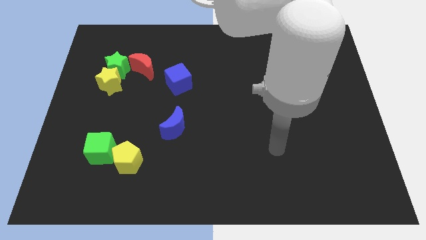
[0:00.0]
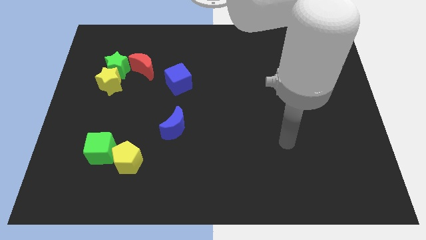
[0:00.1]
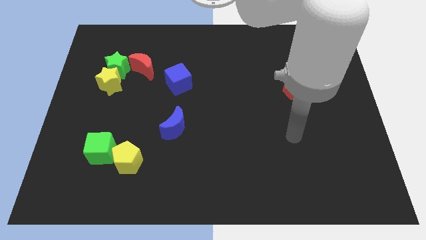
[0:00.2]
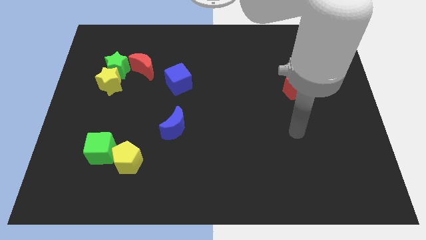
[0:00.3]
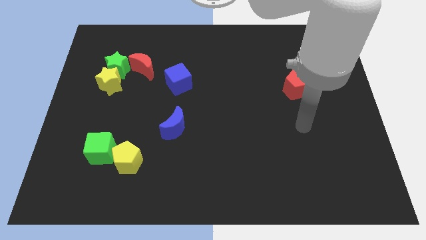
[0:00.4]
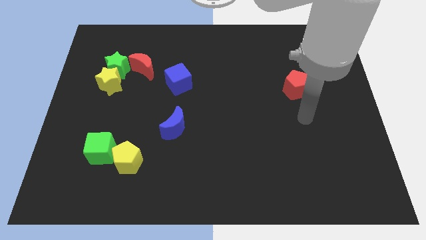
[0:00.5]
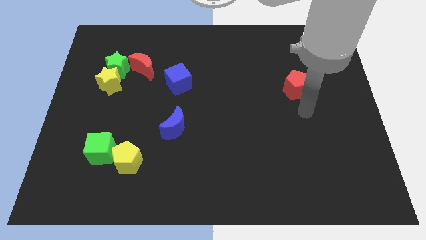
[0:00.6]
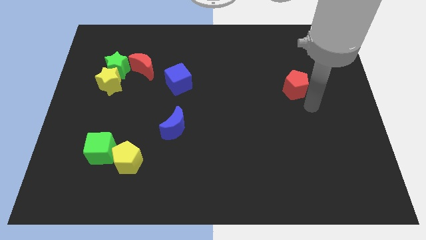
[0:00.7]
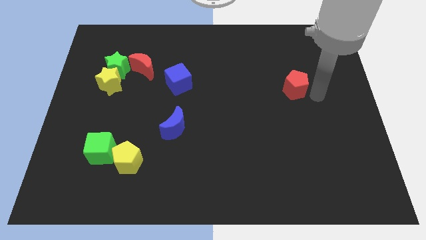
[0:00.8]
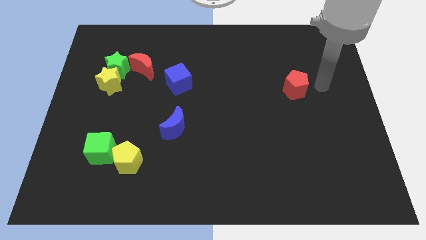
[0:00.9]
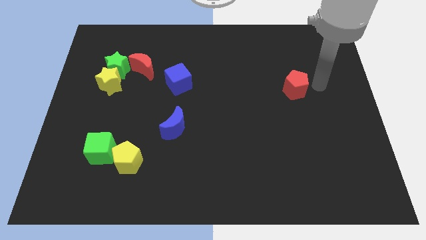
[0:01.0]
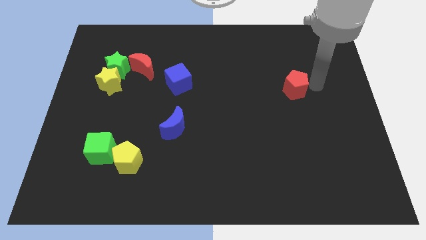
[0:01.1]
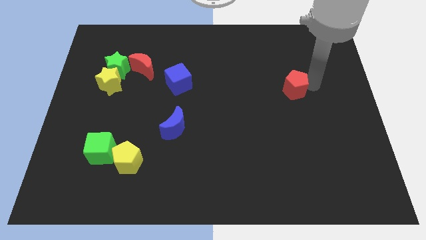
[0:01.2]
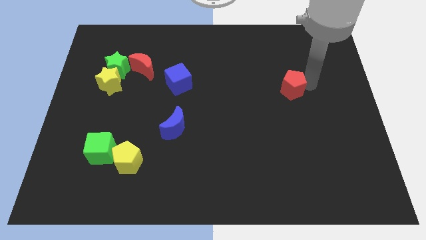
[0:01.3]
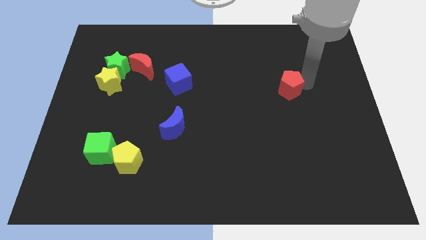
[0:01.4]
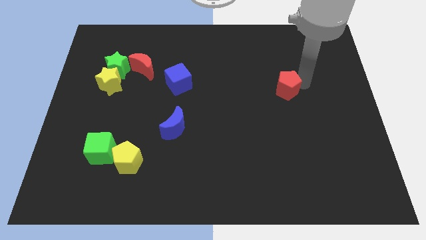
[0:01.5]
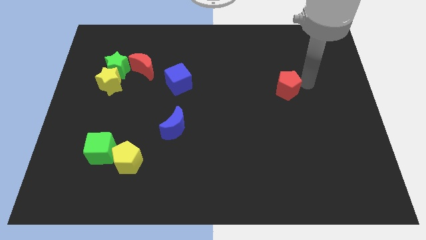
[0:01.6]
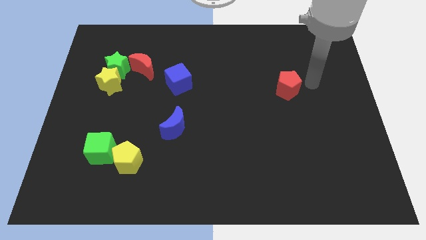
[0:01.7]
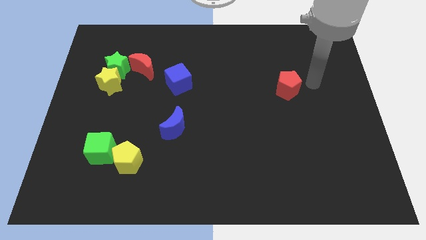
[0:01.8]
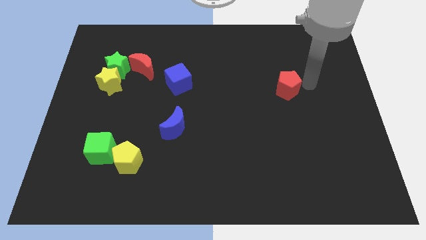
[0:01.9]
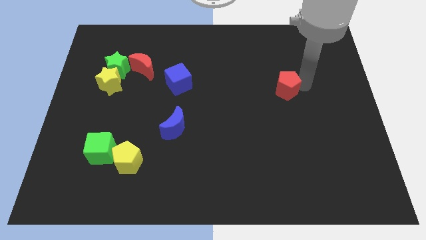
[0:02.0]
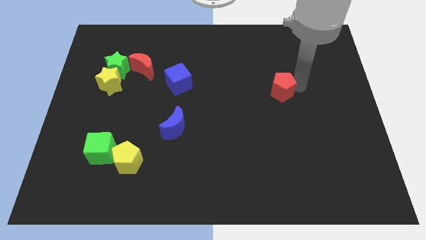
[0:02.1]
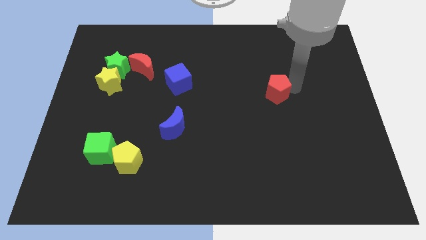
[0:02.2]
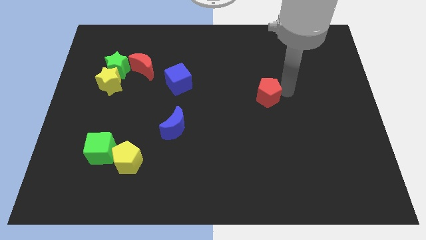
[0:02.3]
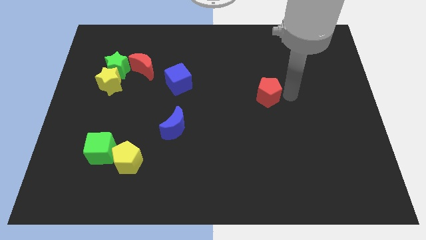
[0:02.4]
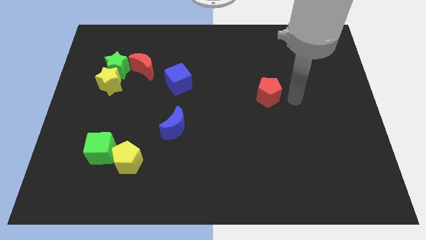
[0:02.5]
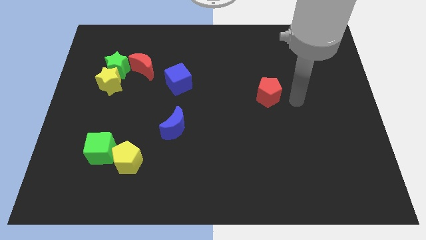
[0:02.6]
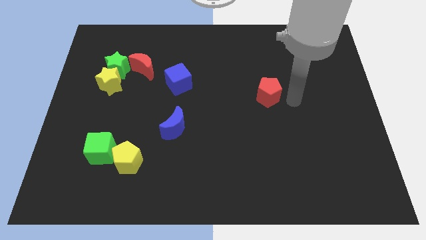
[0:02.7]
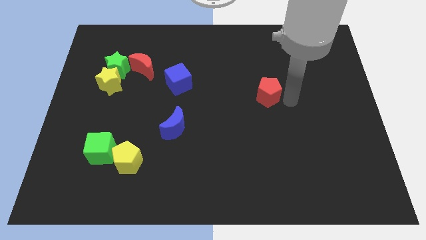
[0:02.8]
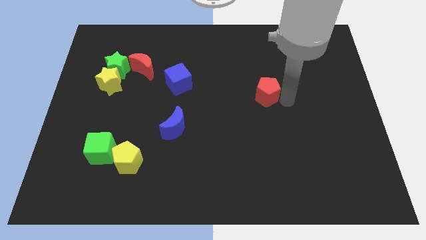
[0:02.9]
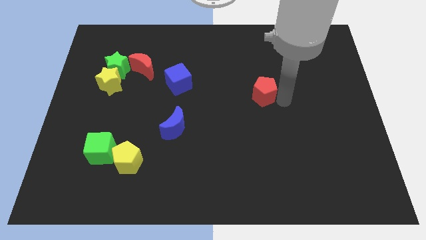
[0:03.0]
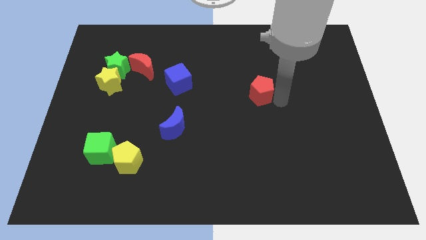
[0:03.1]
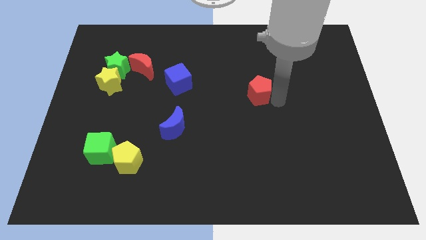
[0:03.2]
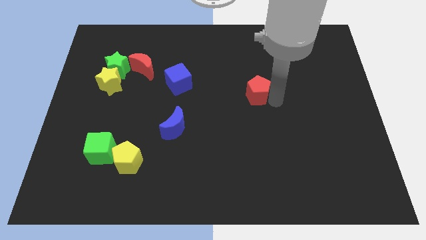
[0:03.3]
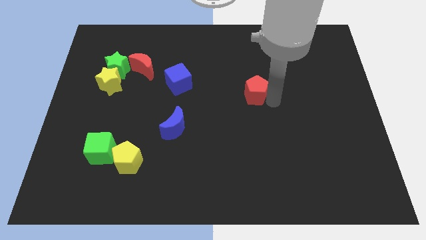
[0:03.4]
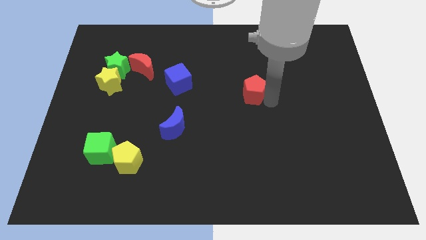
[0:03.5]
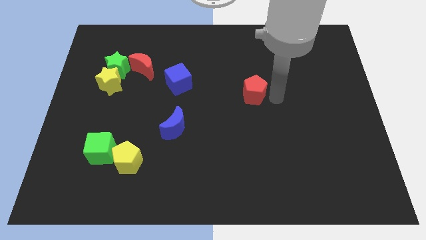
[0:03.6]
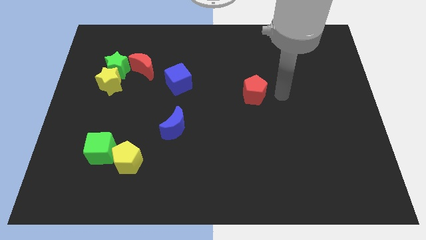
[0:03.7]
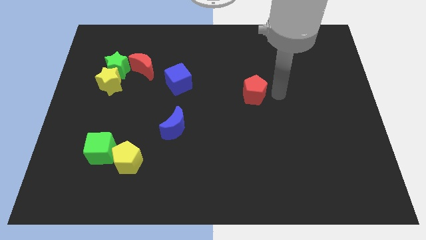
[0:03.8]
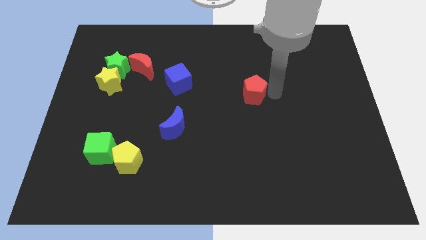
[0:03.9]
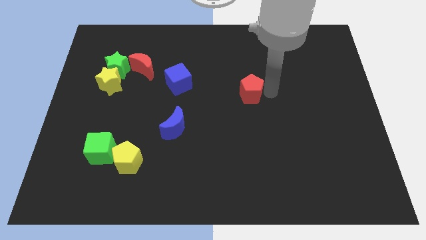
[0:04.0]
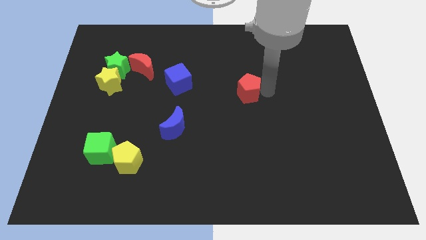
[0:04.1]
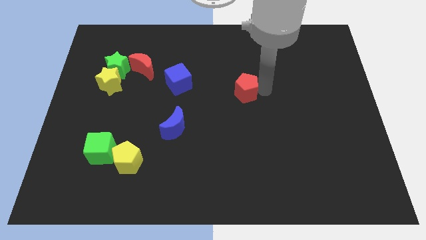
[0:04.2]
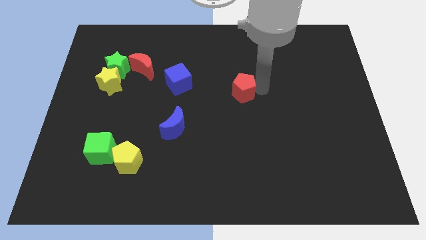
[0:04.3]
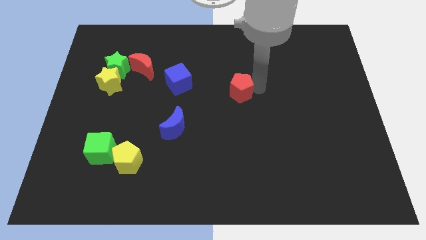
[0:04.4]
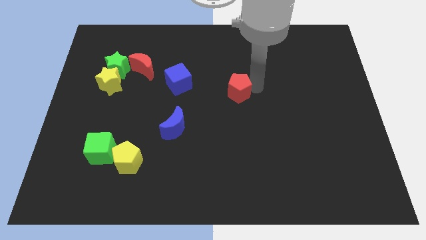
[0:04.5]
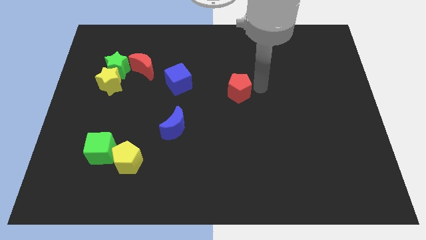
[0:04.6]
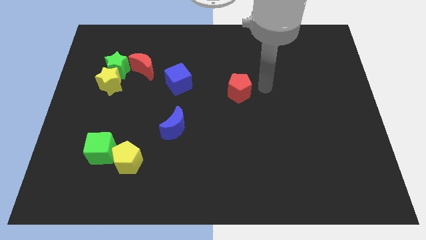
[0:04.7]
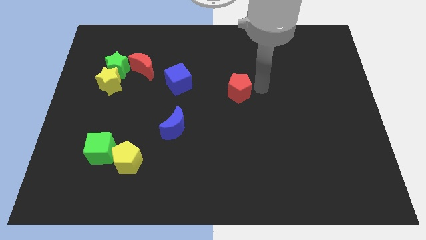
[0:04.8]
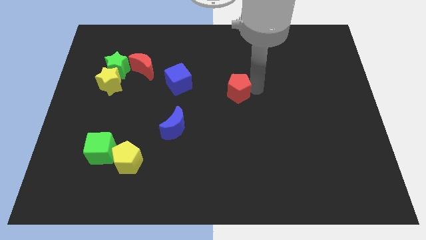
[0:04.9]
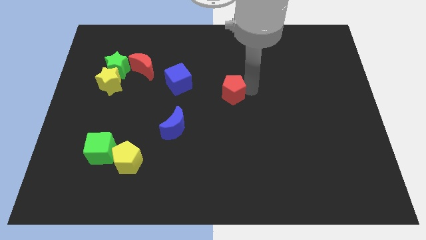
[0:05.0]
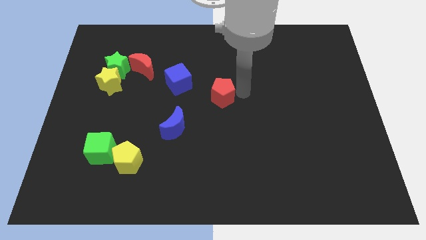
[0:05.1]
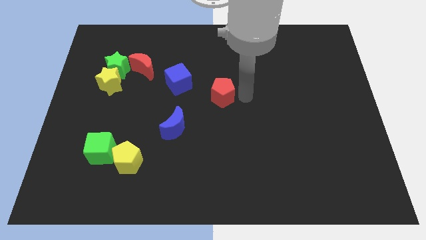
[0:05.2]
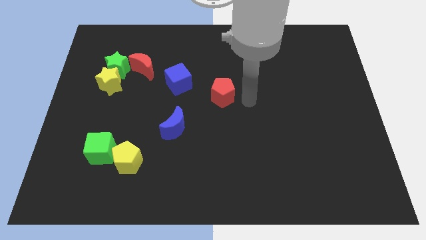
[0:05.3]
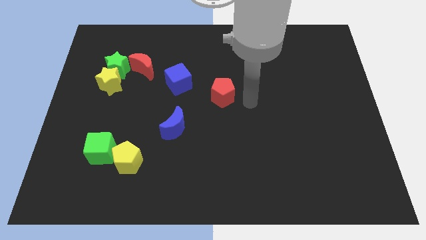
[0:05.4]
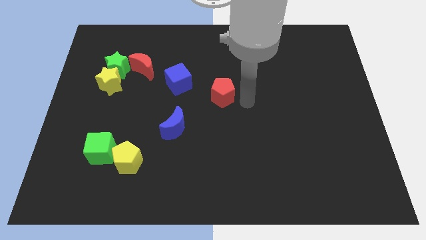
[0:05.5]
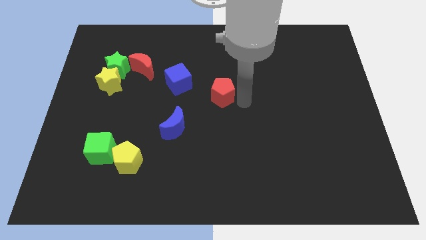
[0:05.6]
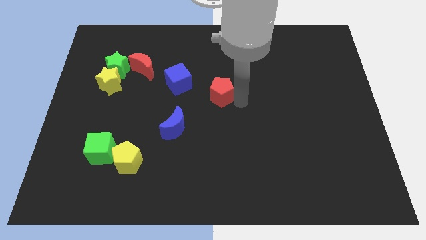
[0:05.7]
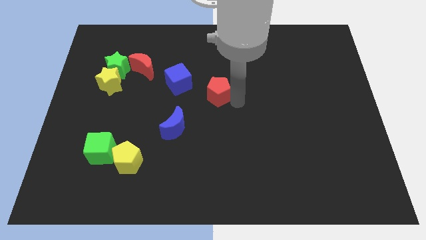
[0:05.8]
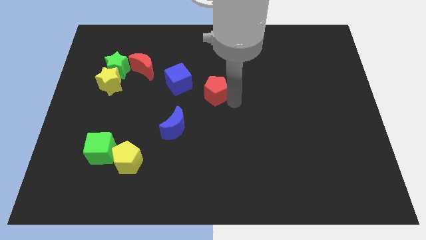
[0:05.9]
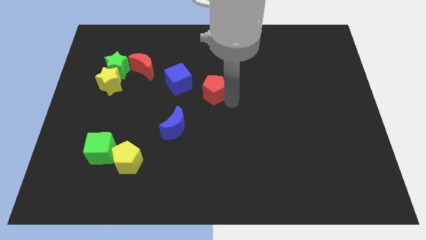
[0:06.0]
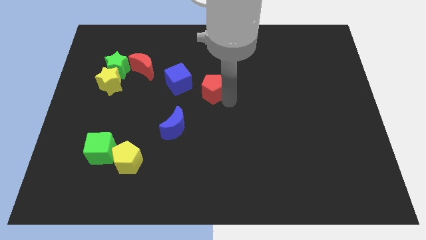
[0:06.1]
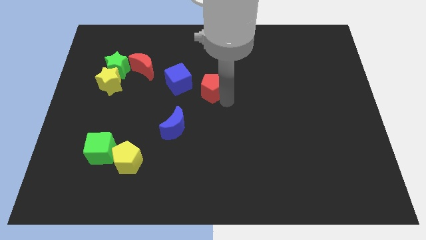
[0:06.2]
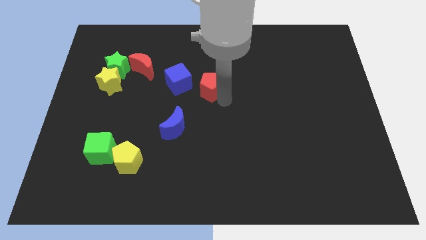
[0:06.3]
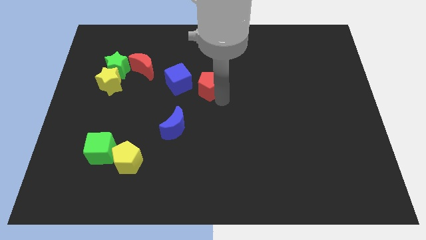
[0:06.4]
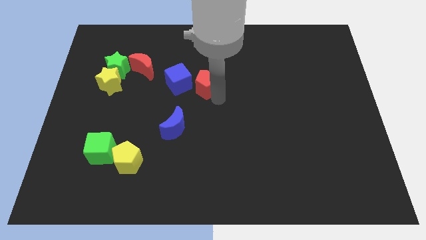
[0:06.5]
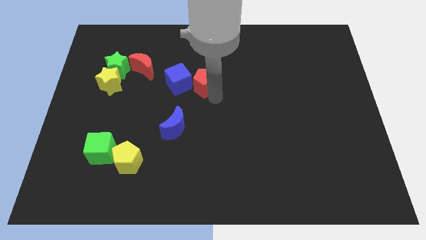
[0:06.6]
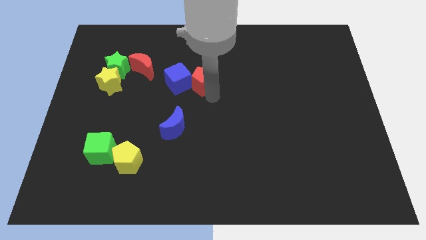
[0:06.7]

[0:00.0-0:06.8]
put the red pentagon next to the blue cube

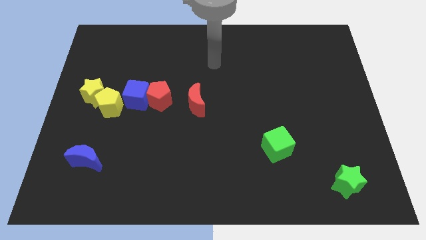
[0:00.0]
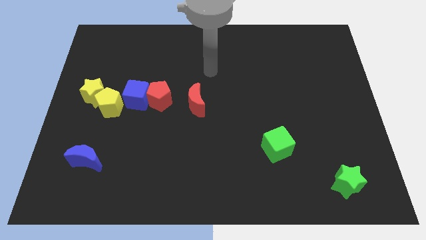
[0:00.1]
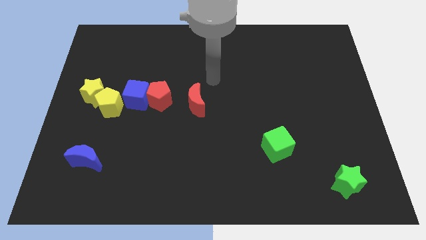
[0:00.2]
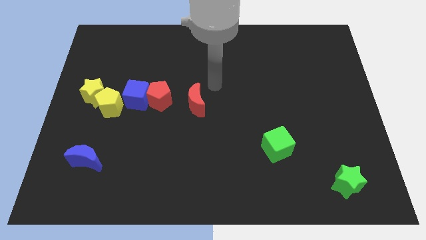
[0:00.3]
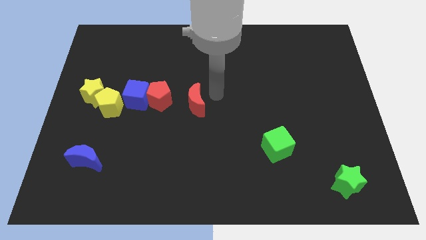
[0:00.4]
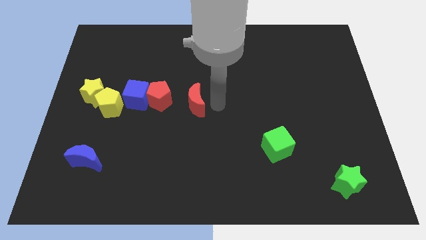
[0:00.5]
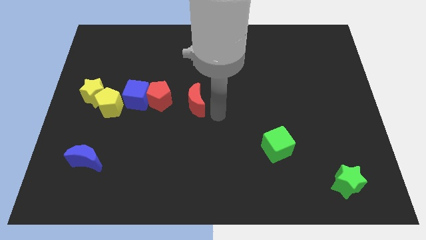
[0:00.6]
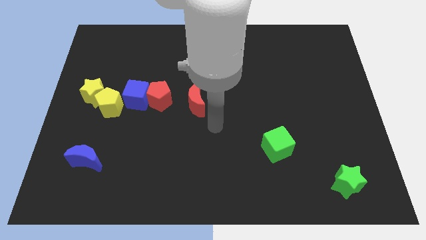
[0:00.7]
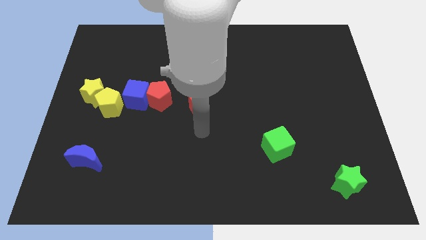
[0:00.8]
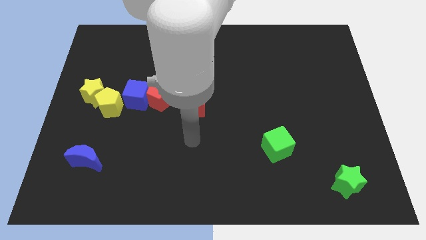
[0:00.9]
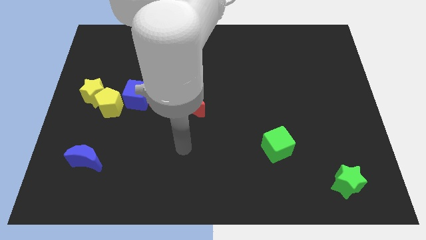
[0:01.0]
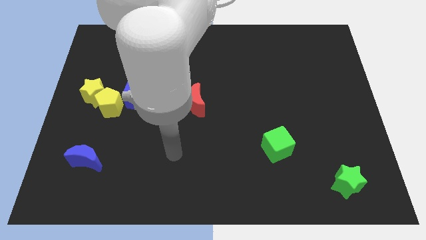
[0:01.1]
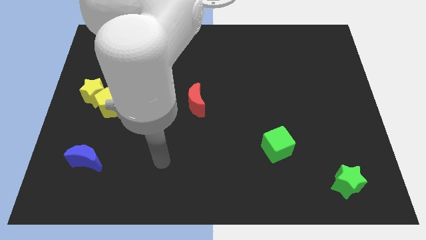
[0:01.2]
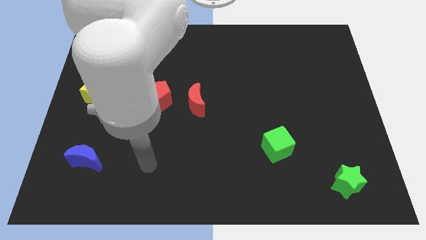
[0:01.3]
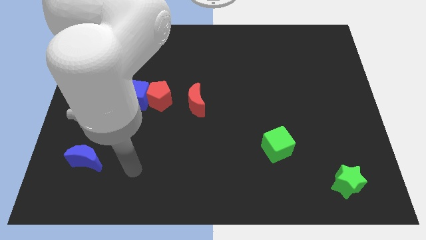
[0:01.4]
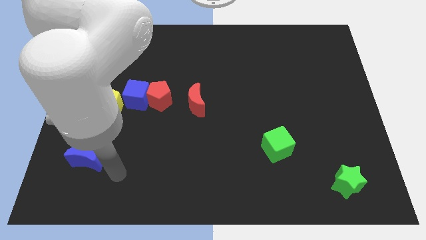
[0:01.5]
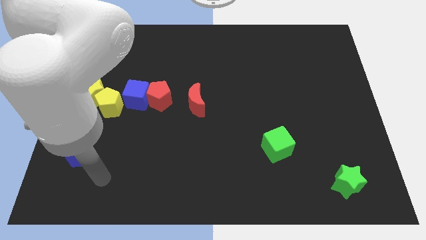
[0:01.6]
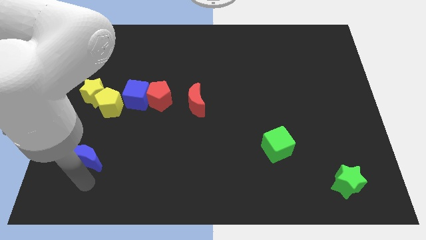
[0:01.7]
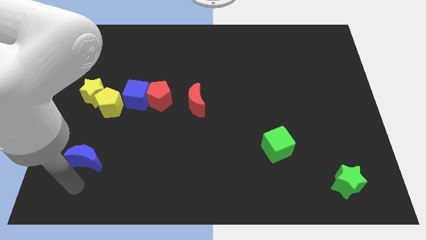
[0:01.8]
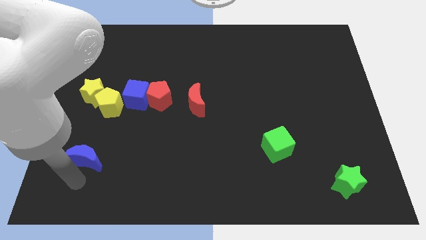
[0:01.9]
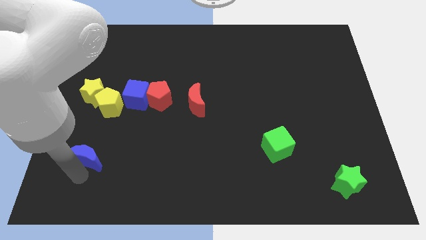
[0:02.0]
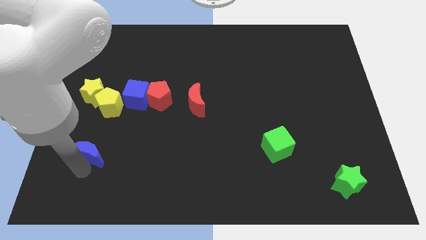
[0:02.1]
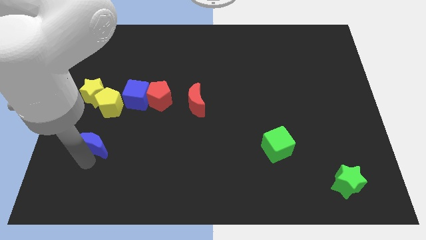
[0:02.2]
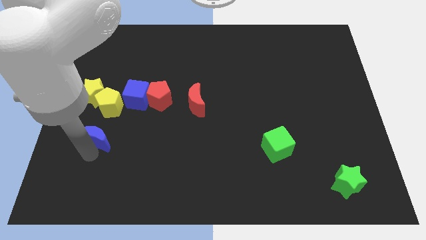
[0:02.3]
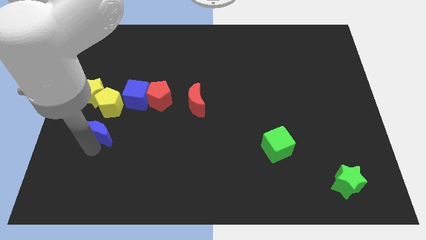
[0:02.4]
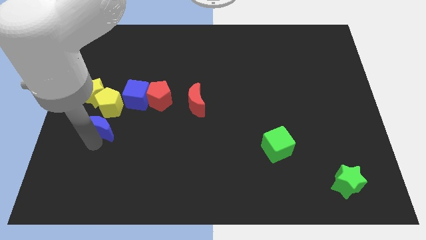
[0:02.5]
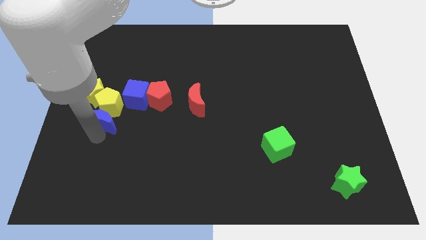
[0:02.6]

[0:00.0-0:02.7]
move the blue moon to the yellow pentagon
